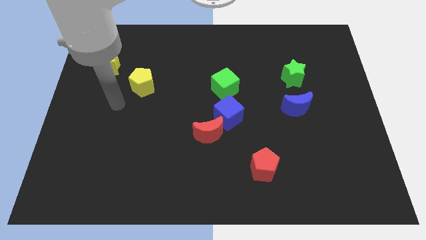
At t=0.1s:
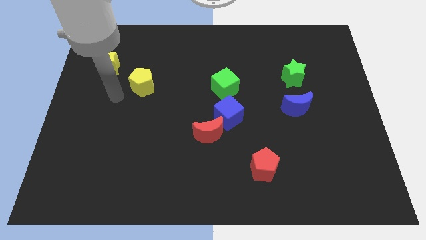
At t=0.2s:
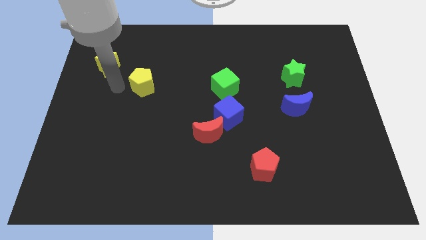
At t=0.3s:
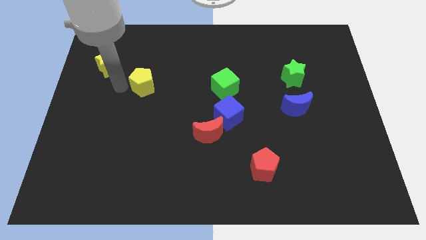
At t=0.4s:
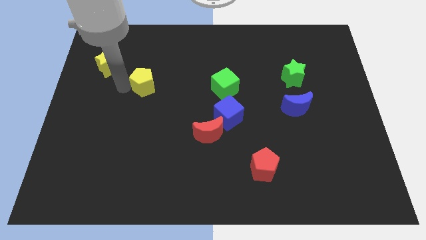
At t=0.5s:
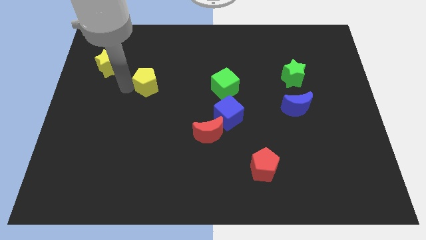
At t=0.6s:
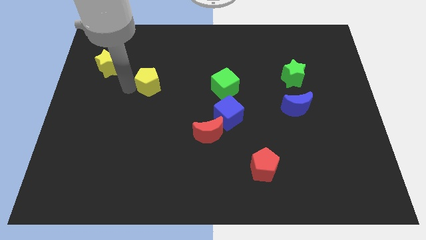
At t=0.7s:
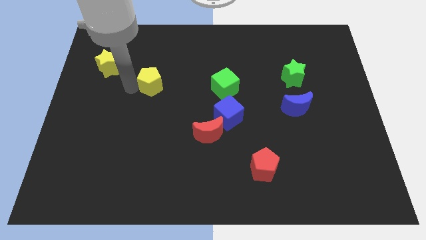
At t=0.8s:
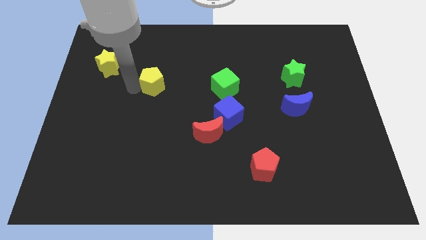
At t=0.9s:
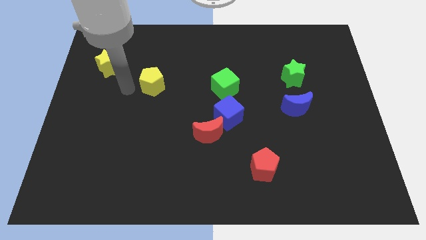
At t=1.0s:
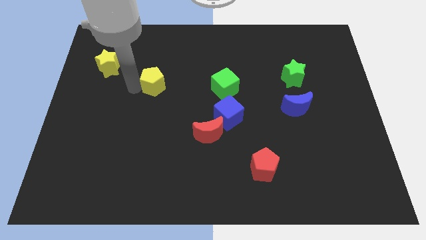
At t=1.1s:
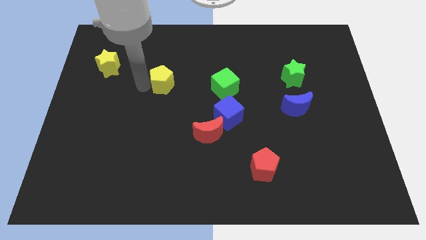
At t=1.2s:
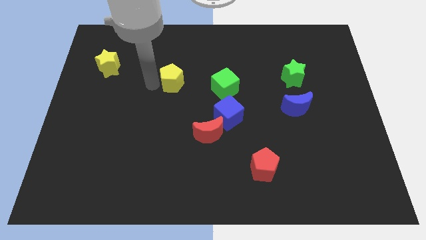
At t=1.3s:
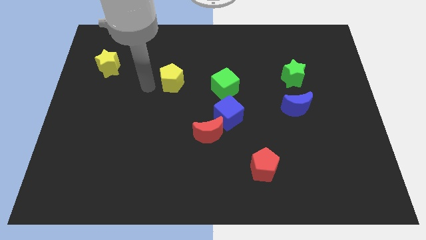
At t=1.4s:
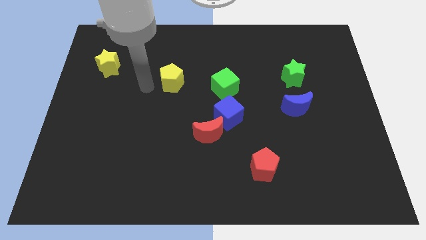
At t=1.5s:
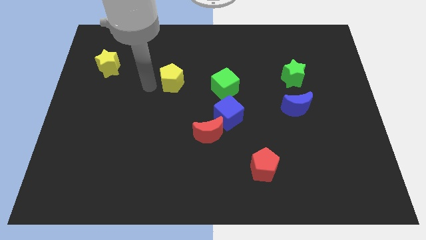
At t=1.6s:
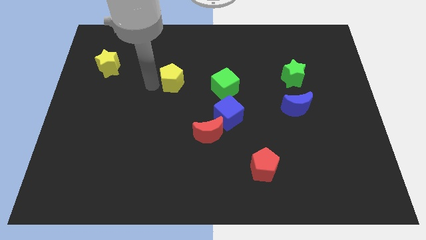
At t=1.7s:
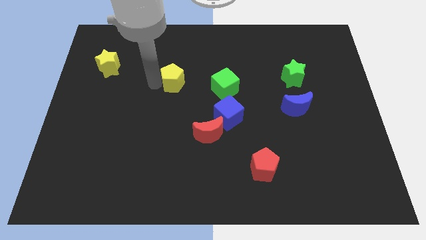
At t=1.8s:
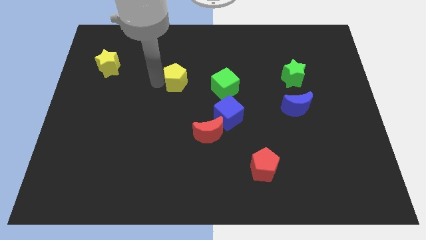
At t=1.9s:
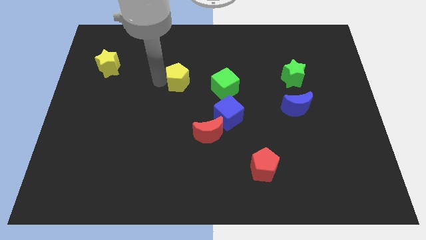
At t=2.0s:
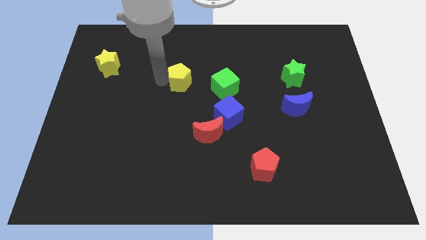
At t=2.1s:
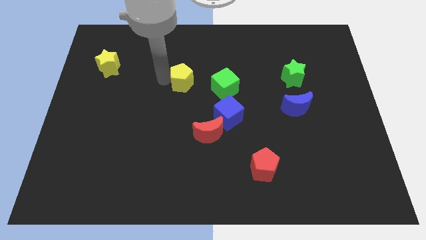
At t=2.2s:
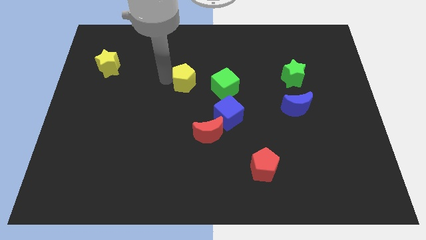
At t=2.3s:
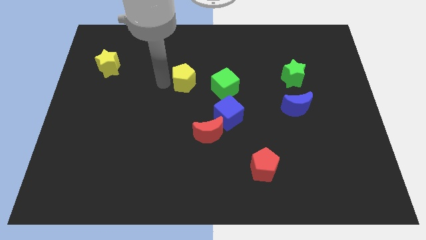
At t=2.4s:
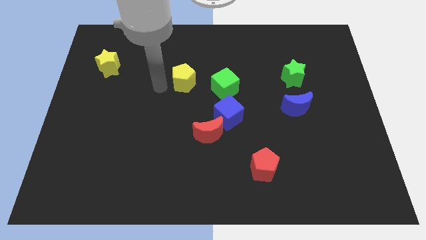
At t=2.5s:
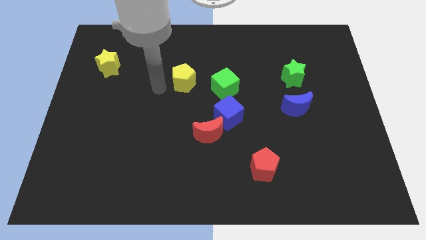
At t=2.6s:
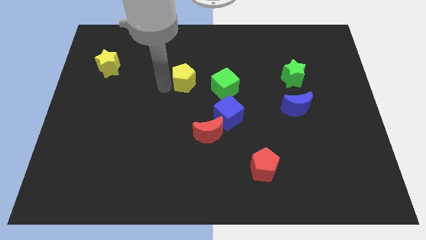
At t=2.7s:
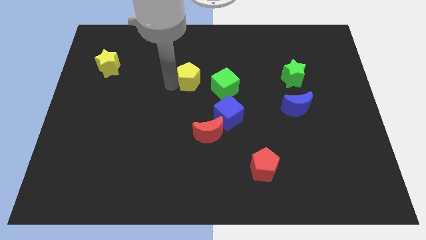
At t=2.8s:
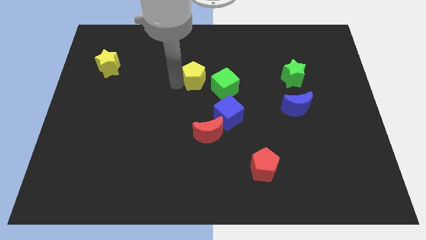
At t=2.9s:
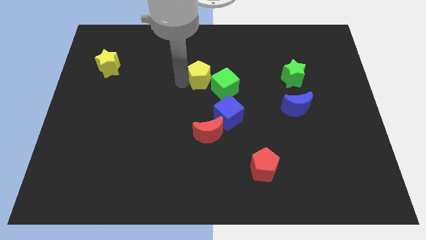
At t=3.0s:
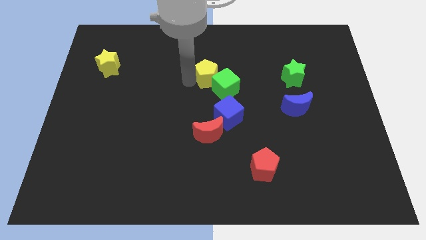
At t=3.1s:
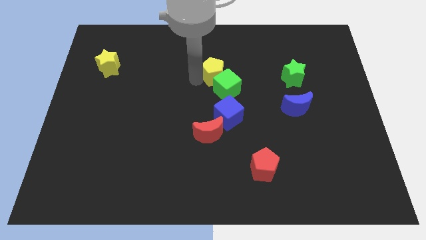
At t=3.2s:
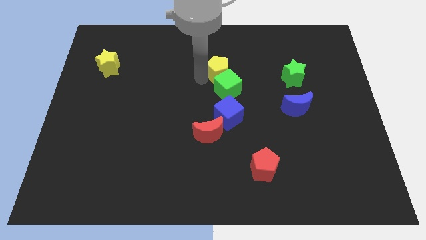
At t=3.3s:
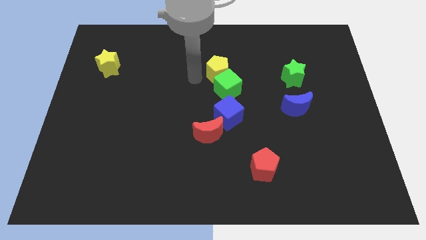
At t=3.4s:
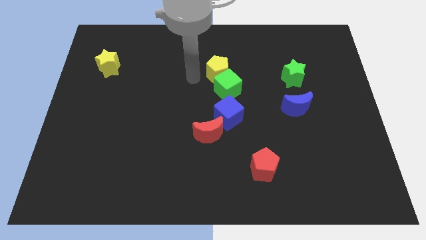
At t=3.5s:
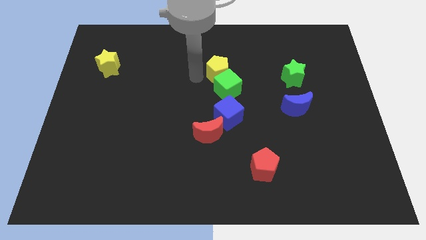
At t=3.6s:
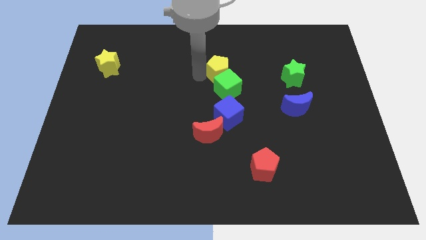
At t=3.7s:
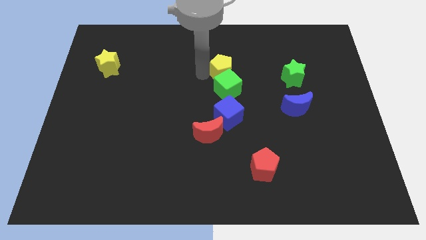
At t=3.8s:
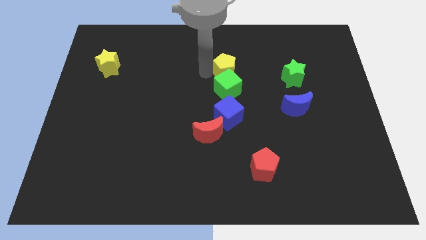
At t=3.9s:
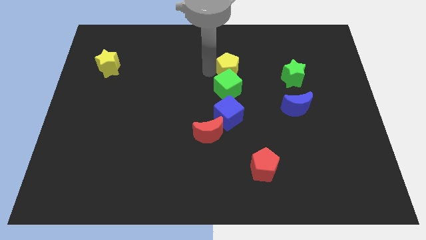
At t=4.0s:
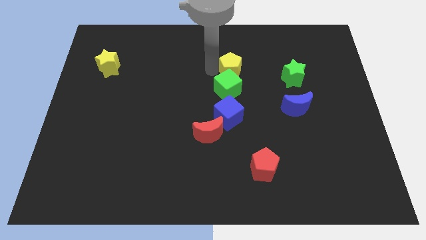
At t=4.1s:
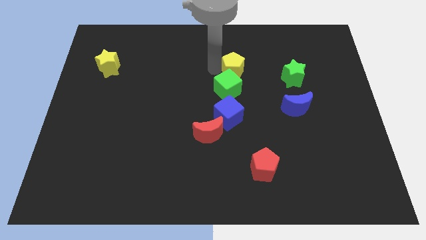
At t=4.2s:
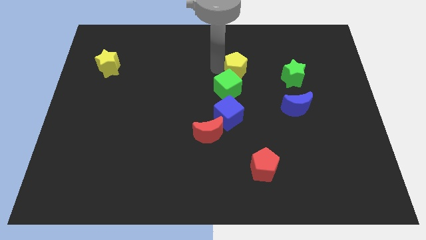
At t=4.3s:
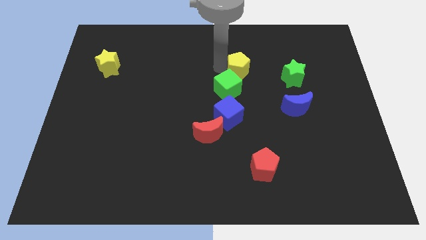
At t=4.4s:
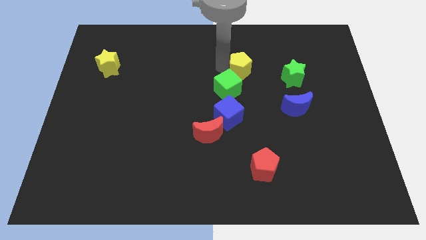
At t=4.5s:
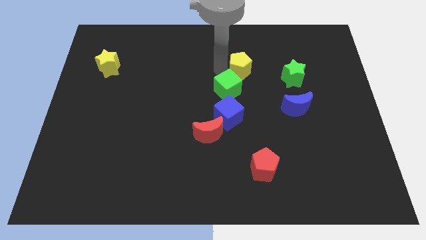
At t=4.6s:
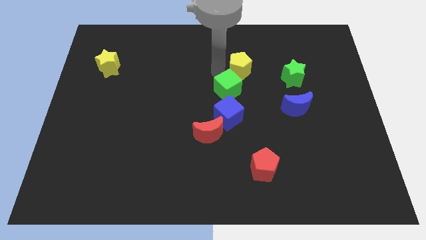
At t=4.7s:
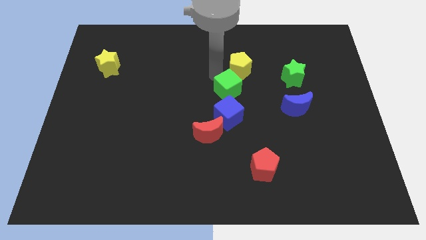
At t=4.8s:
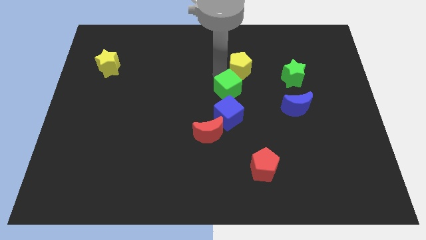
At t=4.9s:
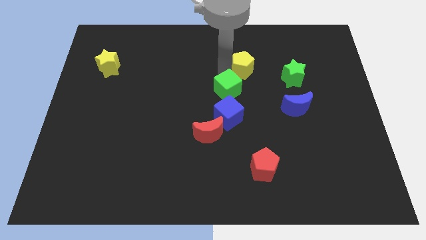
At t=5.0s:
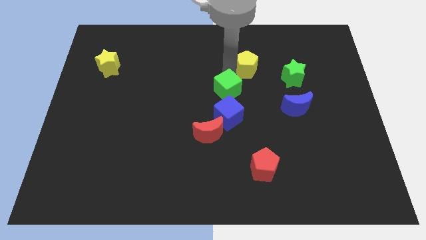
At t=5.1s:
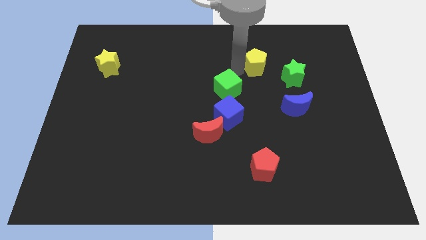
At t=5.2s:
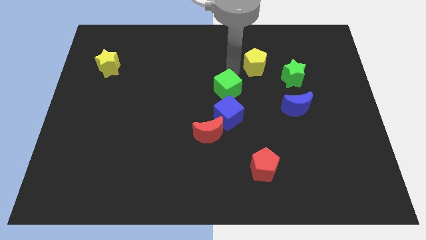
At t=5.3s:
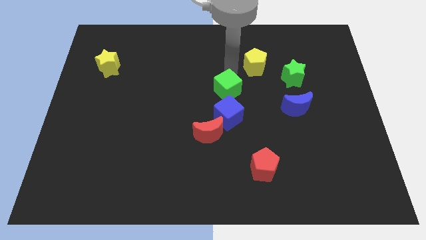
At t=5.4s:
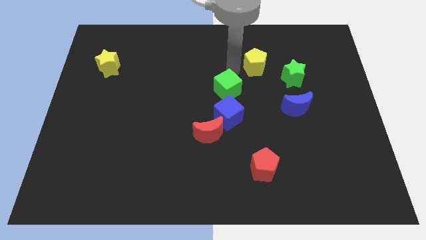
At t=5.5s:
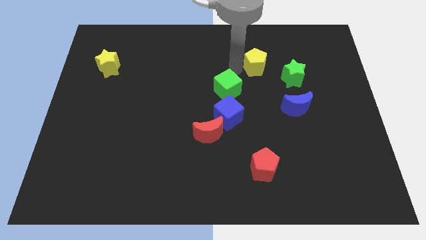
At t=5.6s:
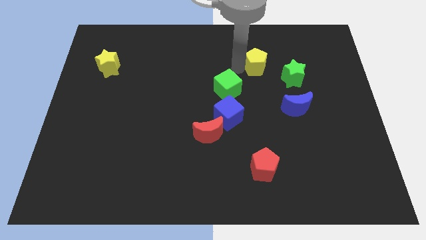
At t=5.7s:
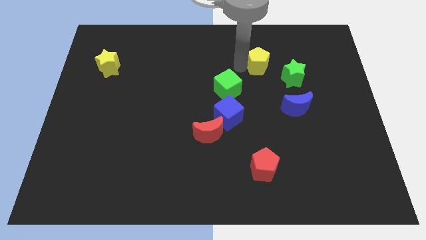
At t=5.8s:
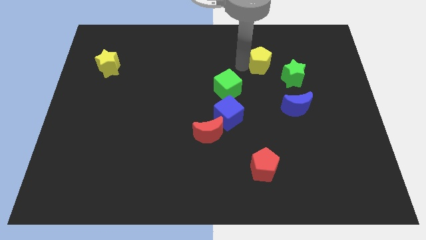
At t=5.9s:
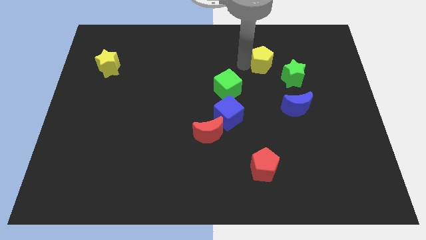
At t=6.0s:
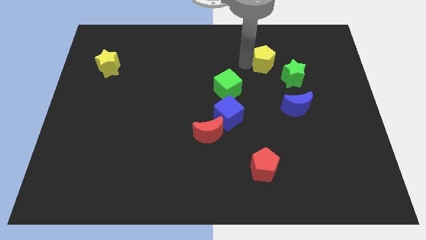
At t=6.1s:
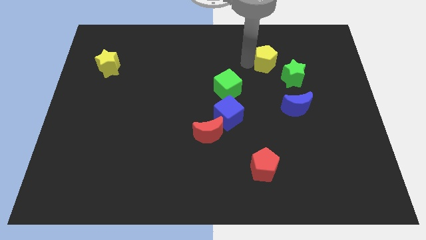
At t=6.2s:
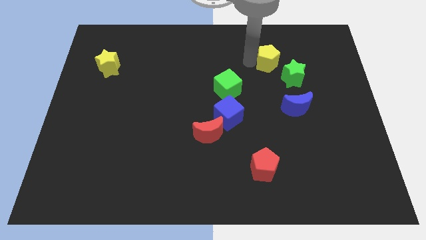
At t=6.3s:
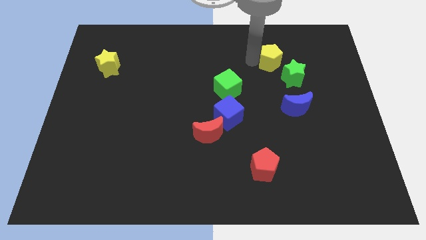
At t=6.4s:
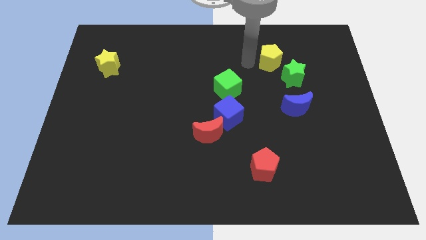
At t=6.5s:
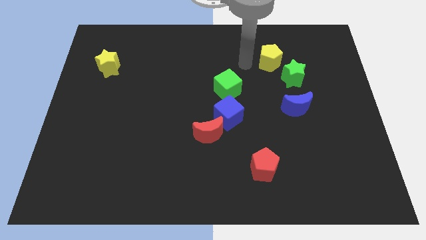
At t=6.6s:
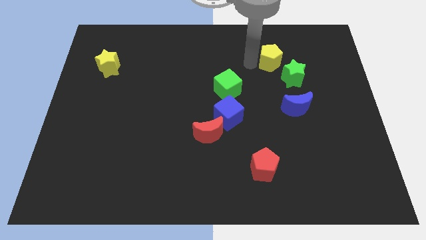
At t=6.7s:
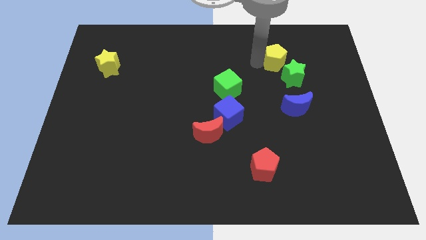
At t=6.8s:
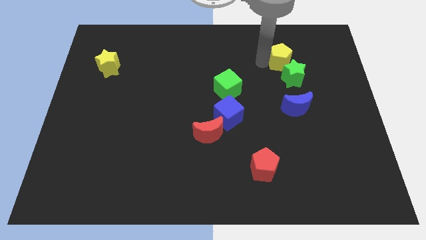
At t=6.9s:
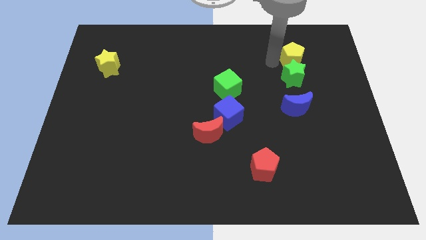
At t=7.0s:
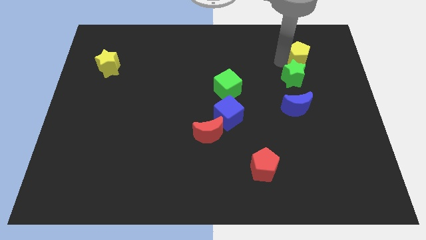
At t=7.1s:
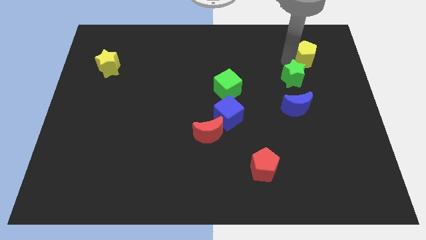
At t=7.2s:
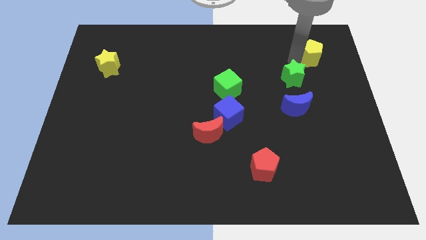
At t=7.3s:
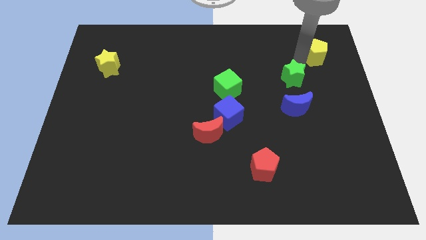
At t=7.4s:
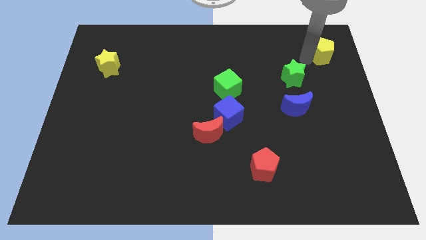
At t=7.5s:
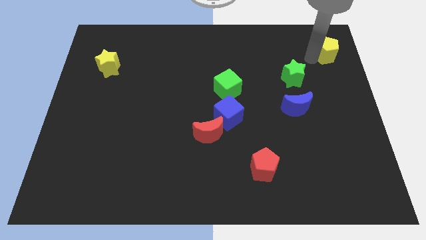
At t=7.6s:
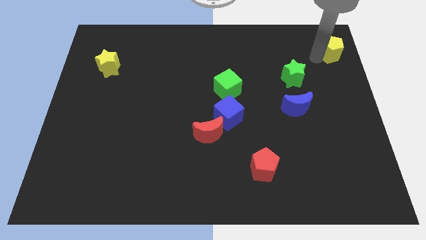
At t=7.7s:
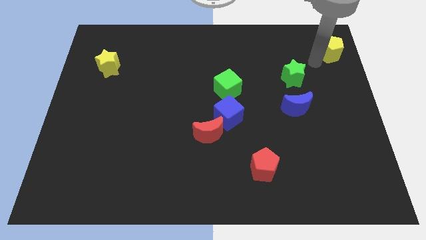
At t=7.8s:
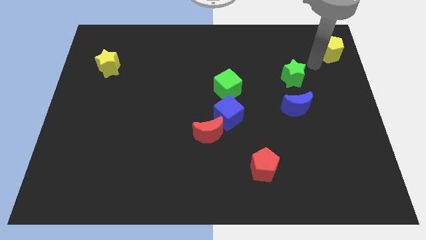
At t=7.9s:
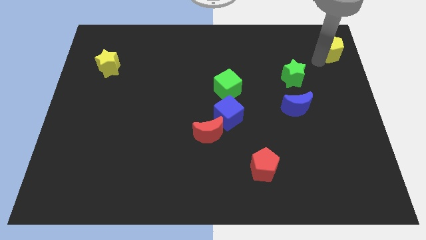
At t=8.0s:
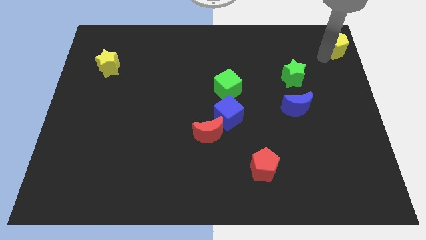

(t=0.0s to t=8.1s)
put the yellow pentagon to the top right
